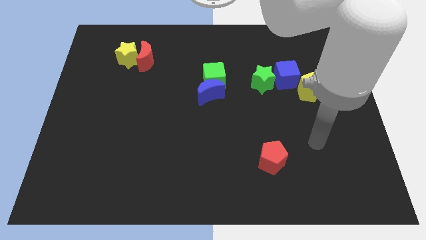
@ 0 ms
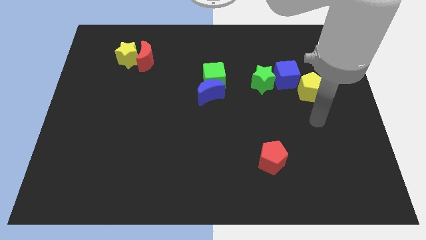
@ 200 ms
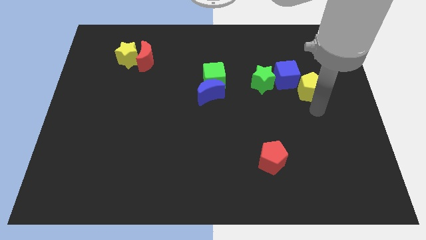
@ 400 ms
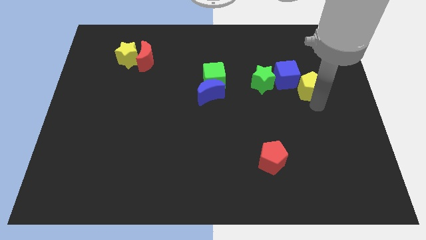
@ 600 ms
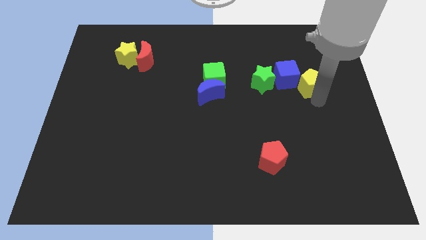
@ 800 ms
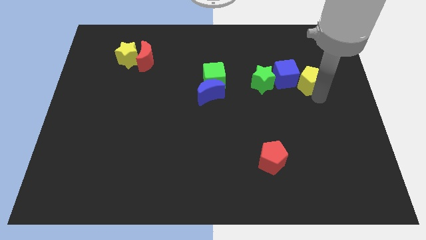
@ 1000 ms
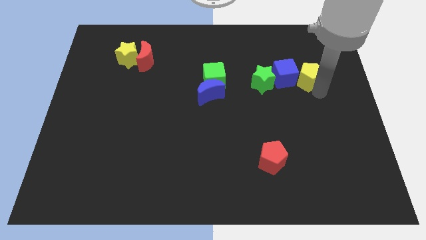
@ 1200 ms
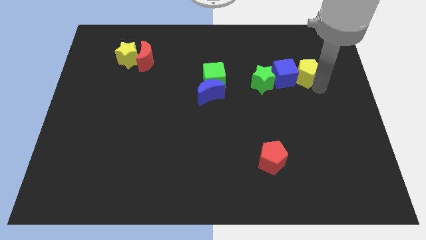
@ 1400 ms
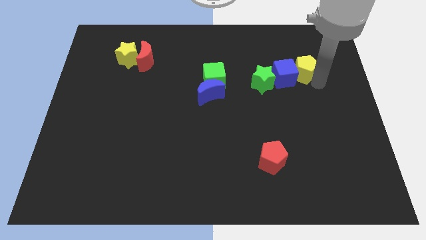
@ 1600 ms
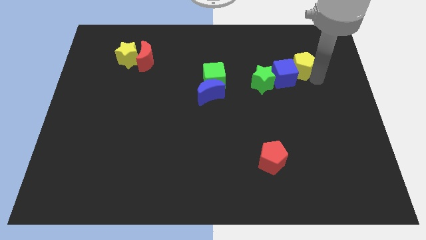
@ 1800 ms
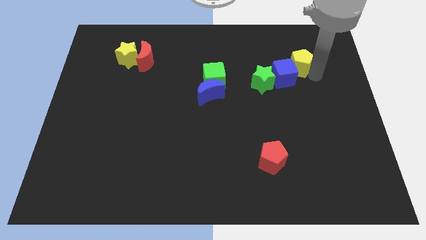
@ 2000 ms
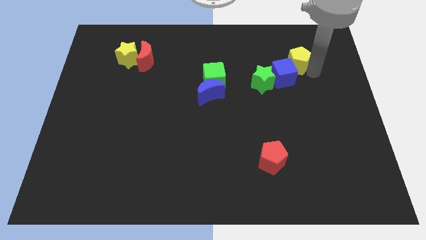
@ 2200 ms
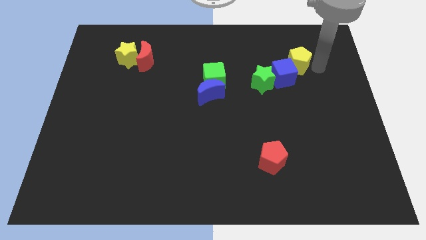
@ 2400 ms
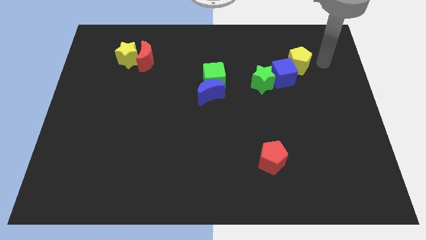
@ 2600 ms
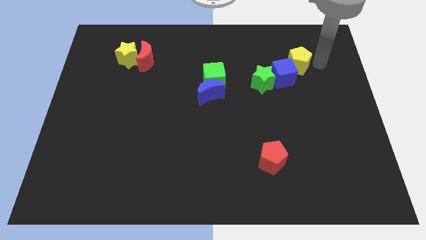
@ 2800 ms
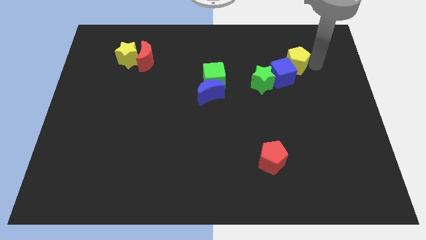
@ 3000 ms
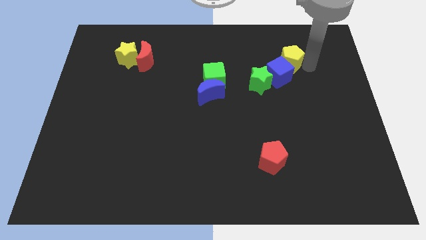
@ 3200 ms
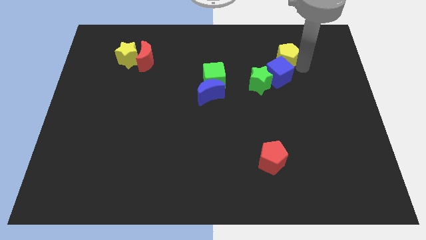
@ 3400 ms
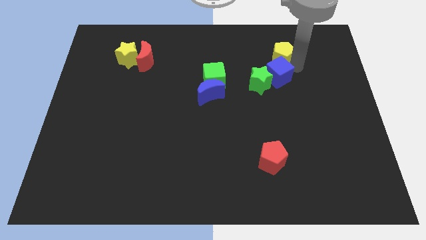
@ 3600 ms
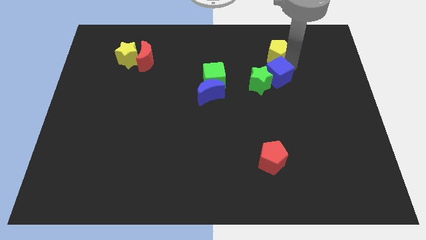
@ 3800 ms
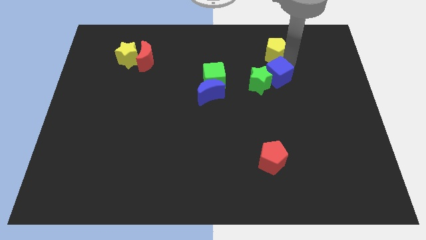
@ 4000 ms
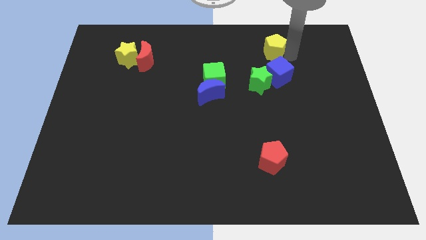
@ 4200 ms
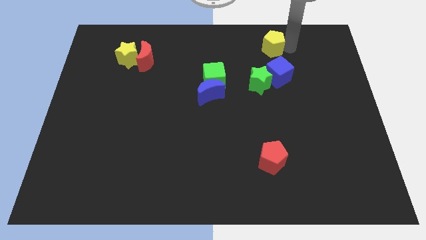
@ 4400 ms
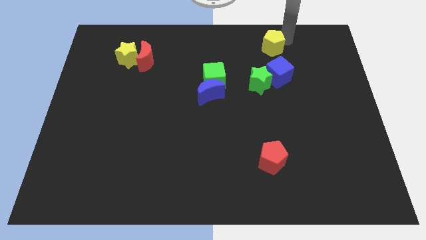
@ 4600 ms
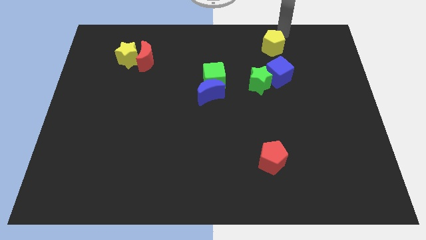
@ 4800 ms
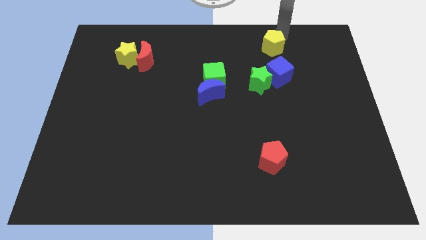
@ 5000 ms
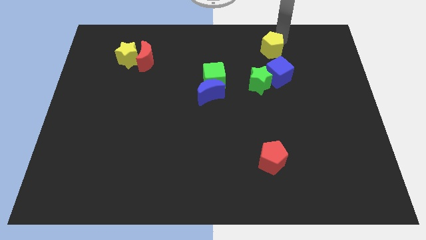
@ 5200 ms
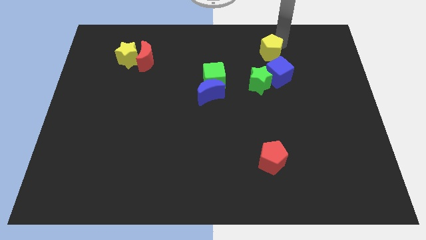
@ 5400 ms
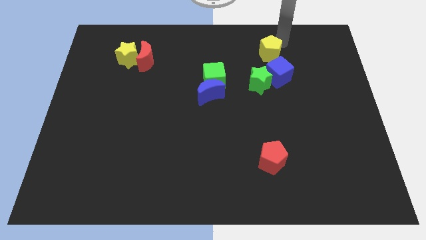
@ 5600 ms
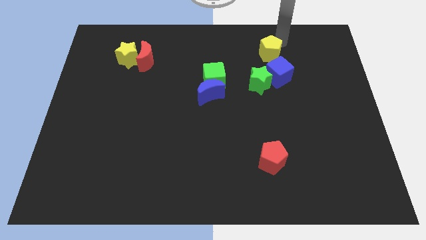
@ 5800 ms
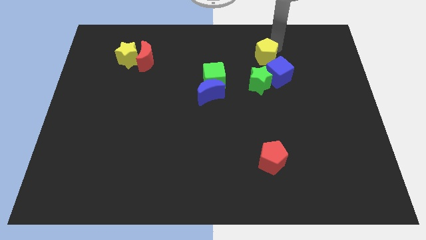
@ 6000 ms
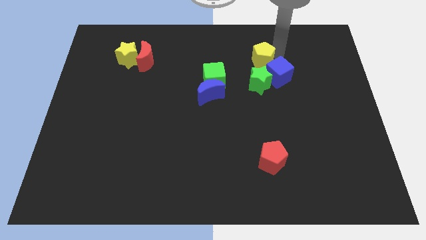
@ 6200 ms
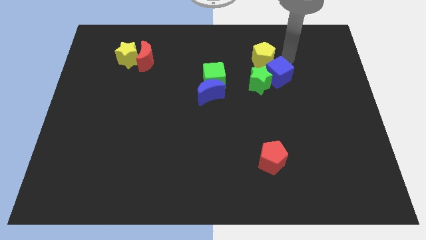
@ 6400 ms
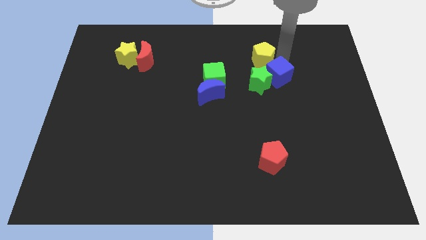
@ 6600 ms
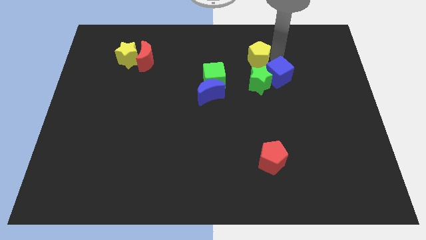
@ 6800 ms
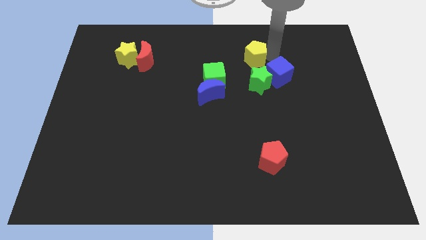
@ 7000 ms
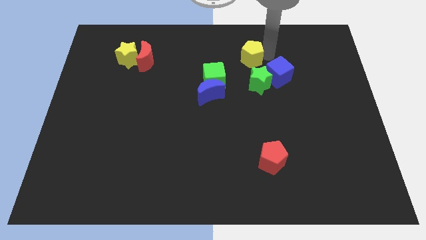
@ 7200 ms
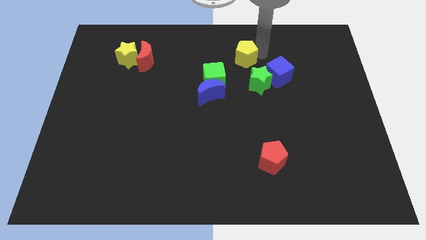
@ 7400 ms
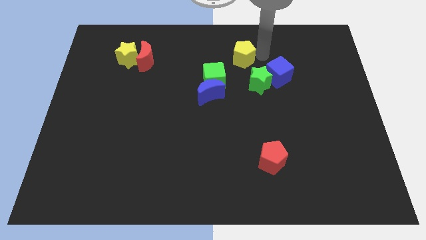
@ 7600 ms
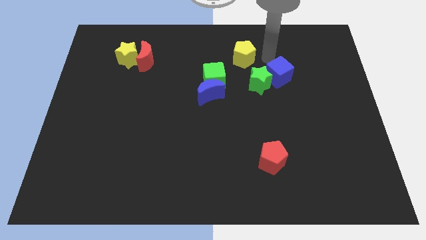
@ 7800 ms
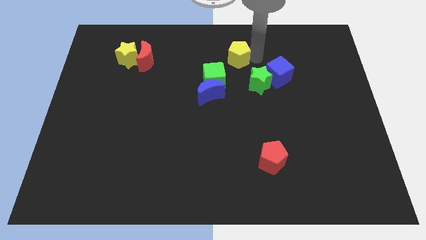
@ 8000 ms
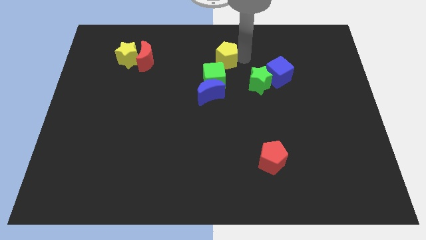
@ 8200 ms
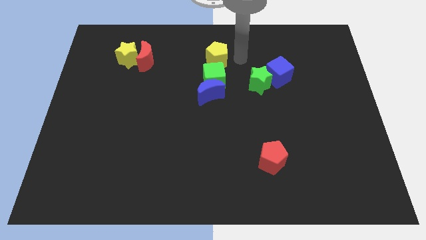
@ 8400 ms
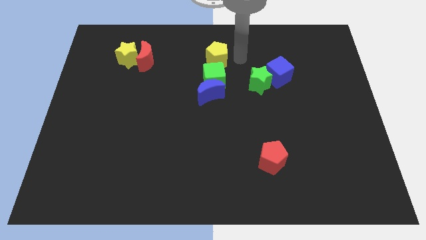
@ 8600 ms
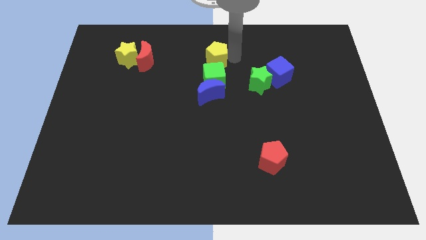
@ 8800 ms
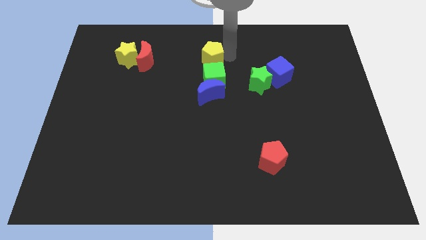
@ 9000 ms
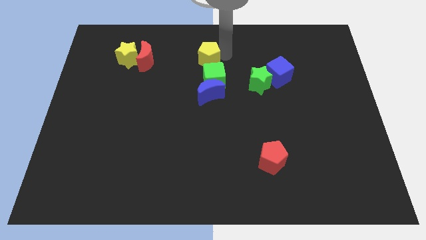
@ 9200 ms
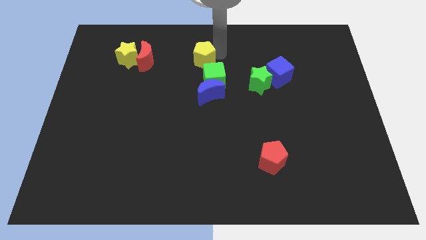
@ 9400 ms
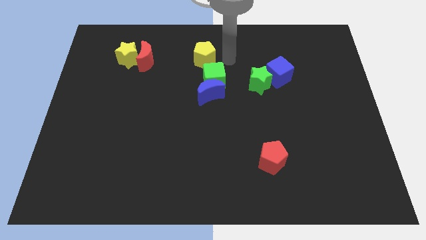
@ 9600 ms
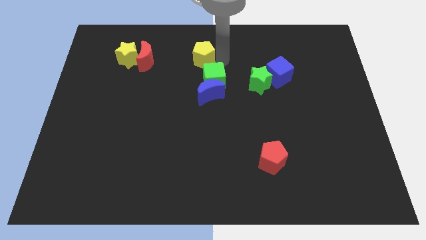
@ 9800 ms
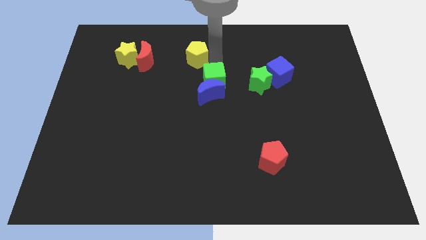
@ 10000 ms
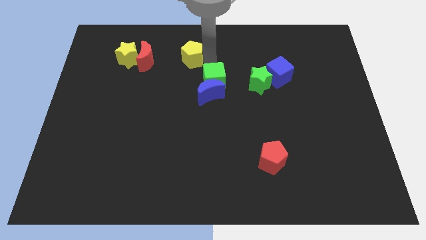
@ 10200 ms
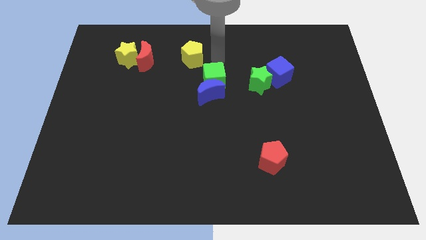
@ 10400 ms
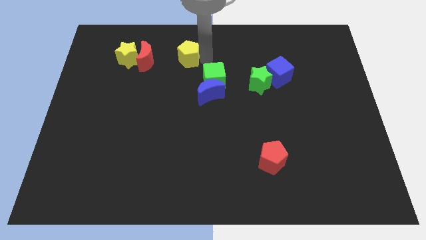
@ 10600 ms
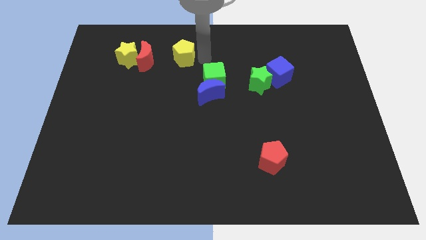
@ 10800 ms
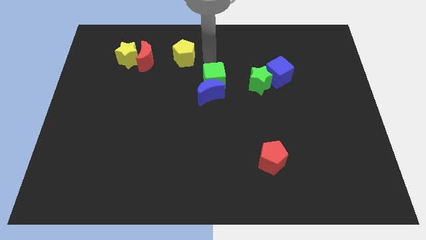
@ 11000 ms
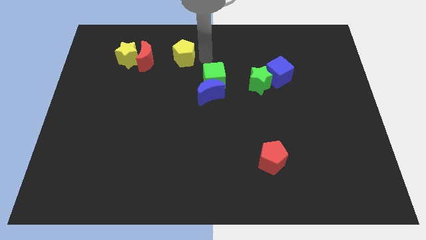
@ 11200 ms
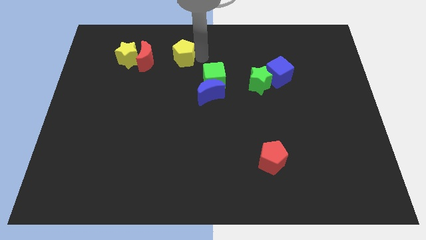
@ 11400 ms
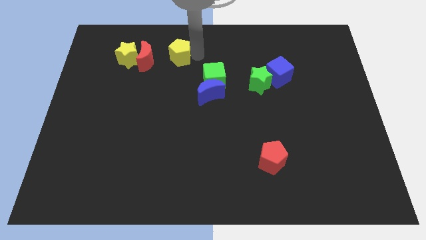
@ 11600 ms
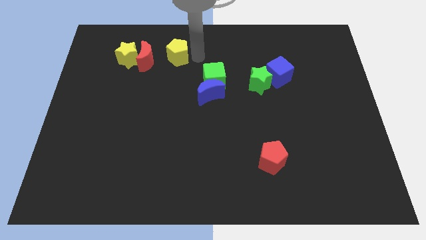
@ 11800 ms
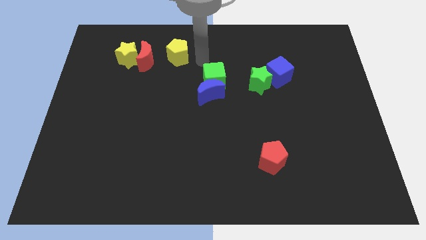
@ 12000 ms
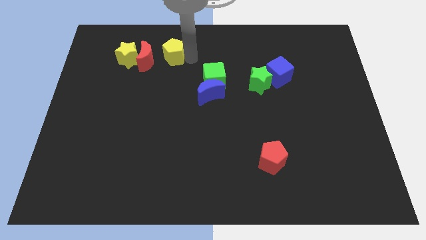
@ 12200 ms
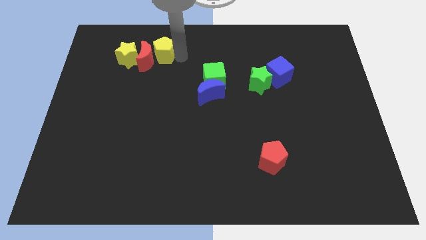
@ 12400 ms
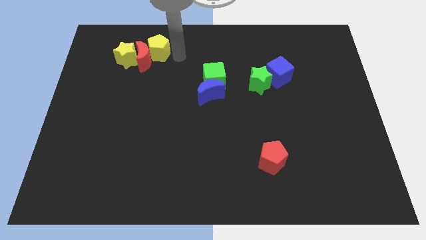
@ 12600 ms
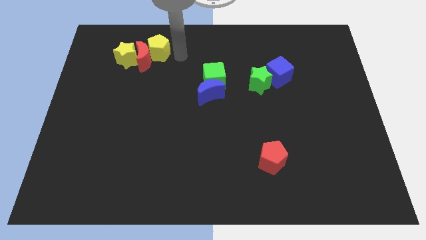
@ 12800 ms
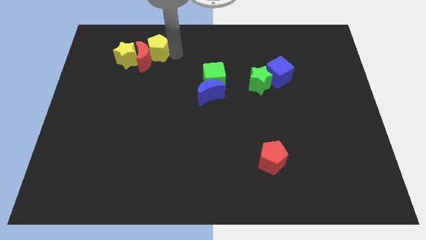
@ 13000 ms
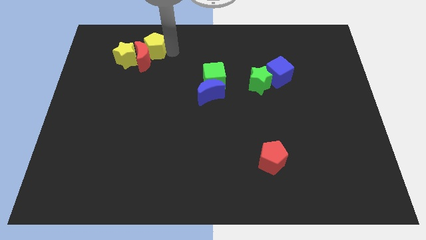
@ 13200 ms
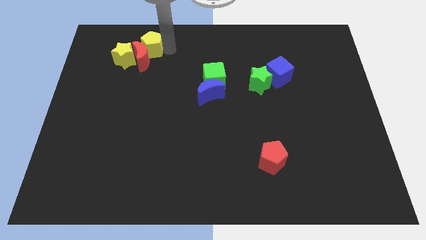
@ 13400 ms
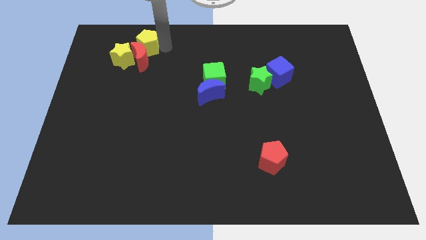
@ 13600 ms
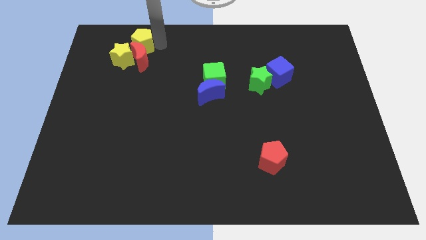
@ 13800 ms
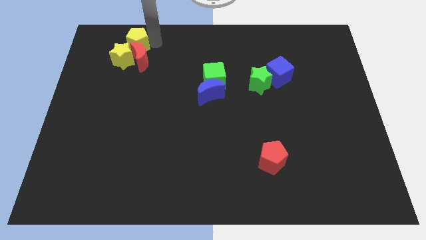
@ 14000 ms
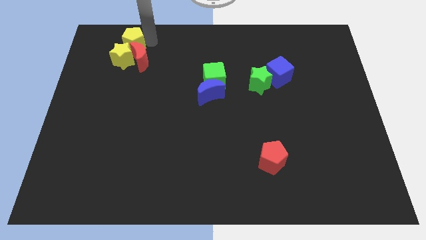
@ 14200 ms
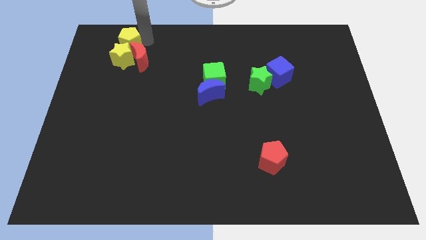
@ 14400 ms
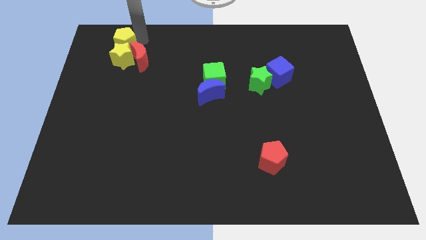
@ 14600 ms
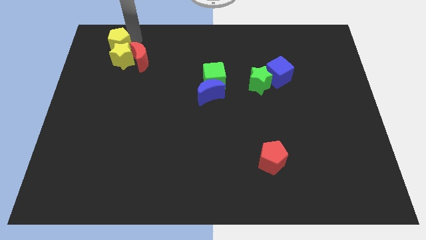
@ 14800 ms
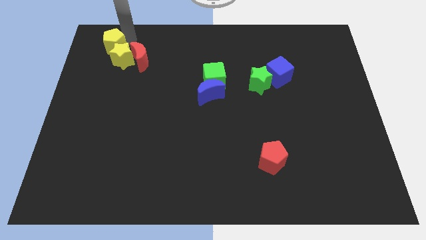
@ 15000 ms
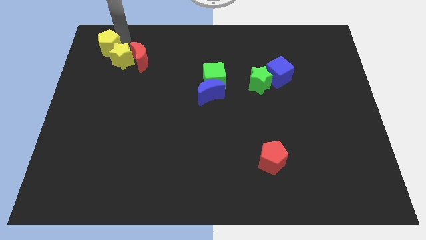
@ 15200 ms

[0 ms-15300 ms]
slide the yellow pentagon just left of the red moon
